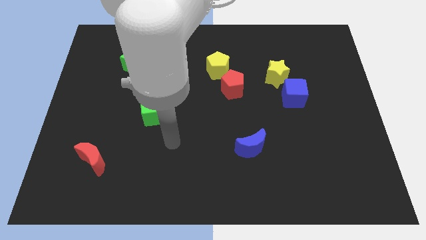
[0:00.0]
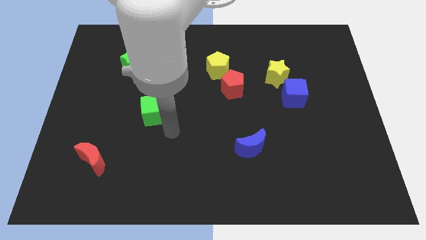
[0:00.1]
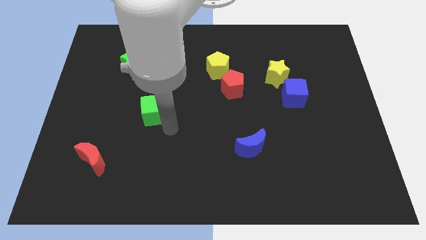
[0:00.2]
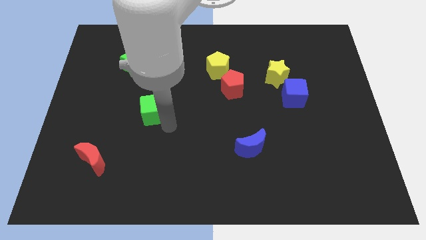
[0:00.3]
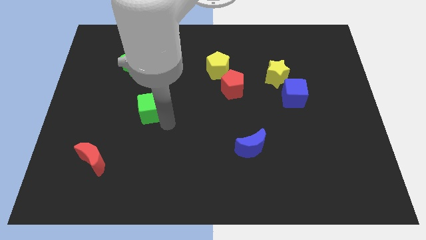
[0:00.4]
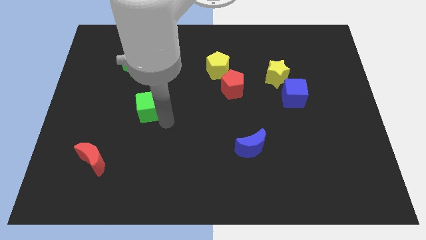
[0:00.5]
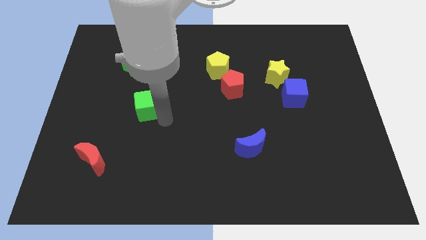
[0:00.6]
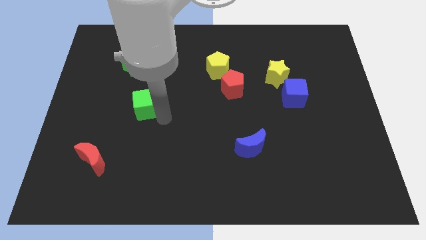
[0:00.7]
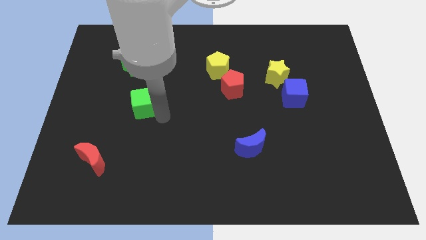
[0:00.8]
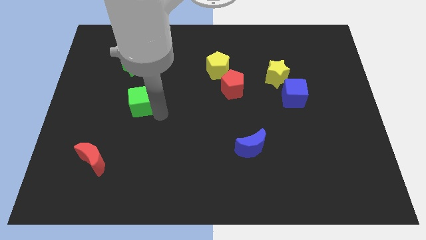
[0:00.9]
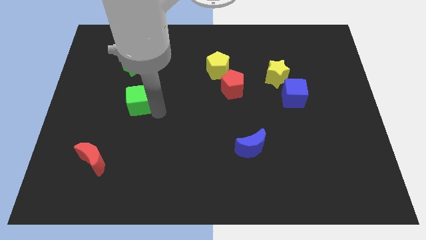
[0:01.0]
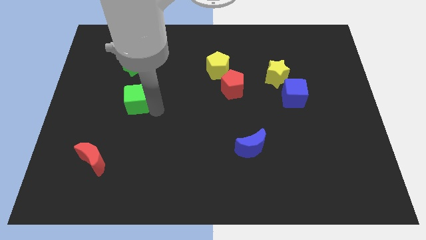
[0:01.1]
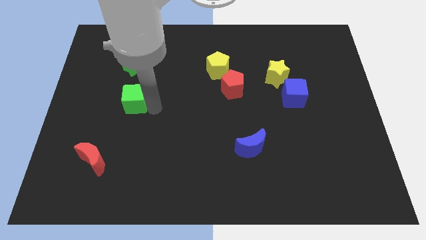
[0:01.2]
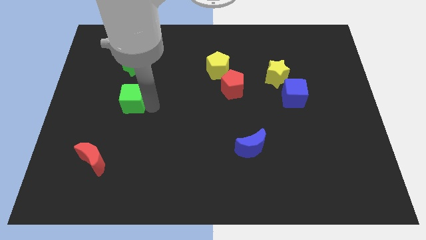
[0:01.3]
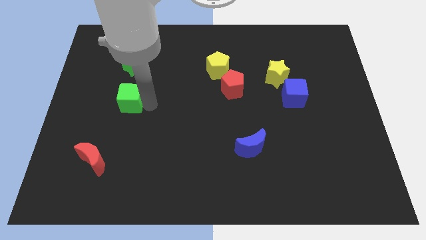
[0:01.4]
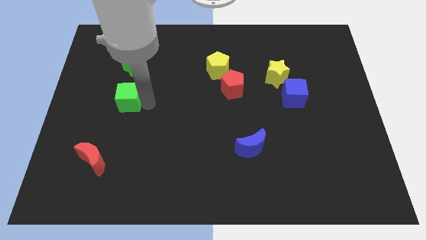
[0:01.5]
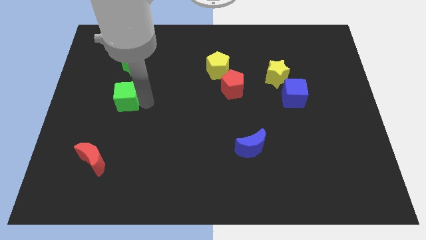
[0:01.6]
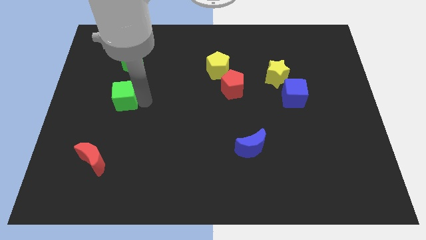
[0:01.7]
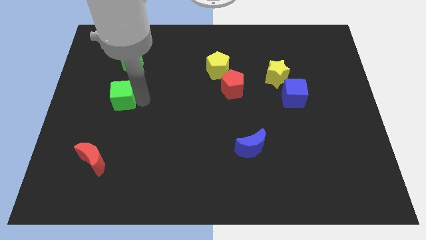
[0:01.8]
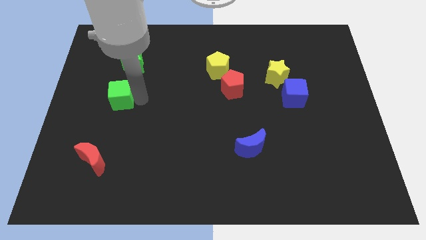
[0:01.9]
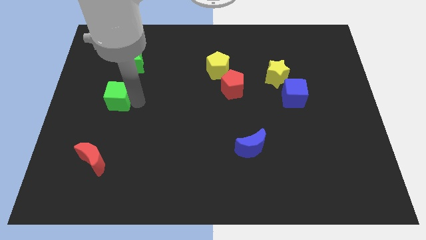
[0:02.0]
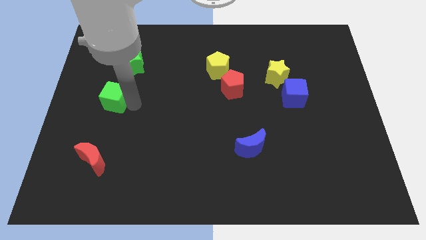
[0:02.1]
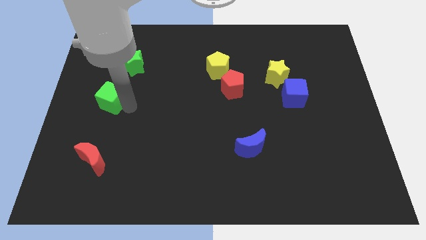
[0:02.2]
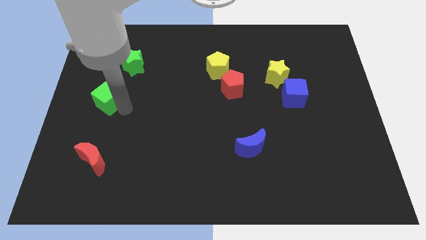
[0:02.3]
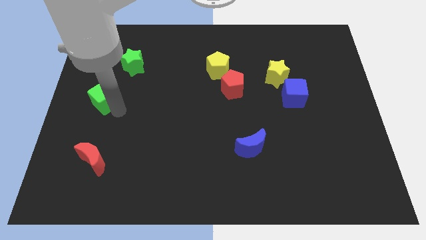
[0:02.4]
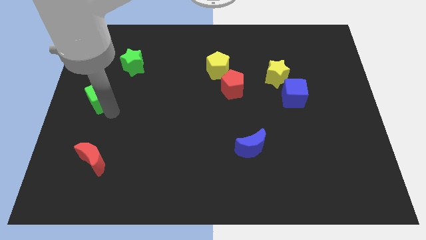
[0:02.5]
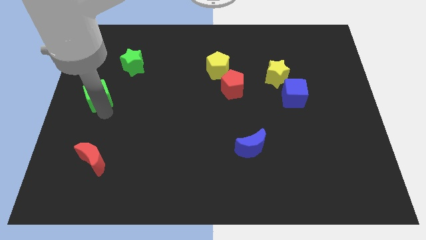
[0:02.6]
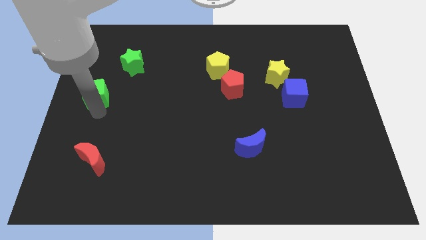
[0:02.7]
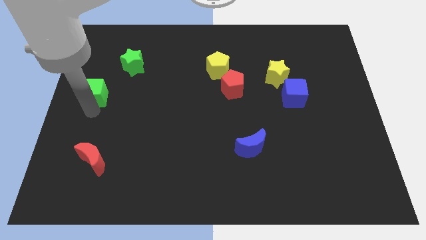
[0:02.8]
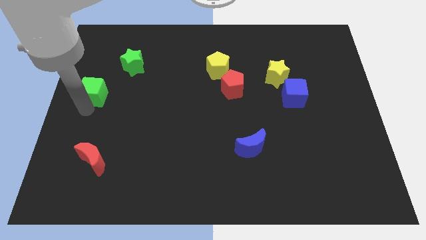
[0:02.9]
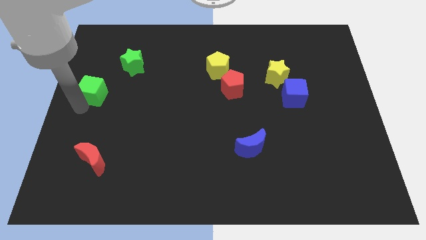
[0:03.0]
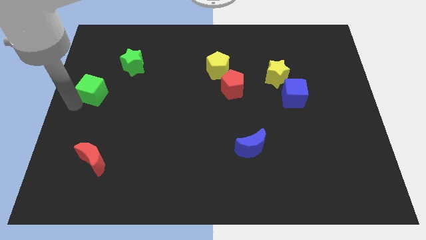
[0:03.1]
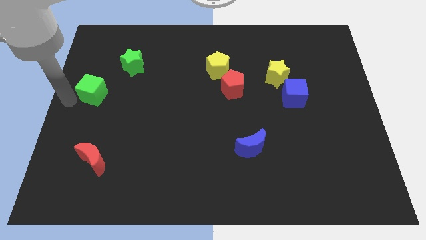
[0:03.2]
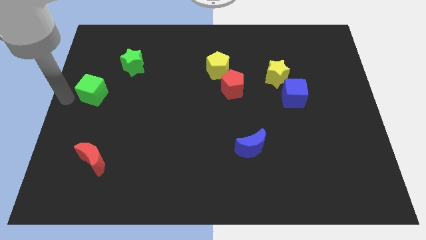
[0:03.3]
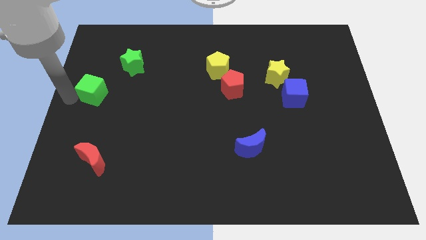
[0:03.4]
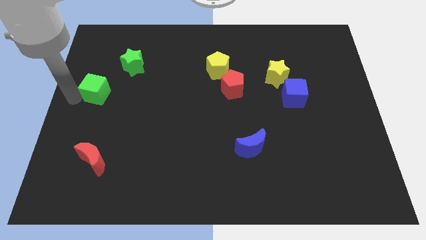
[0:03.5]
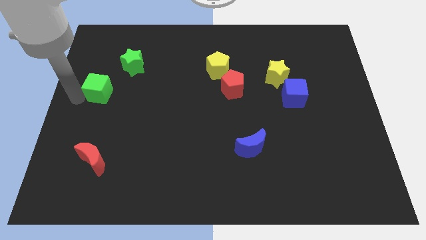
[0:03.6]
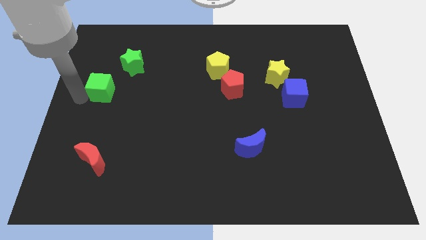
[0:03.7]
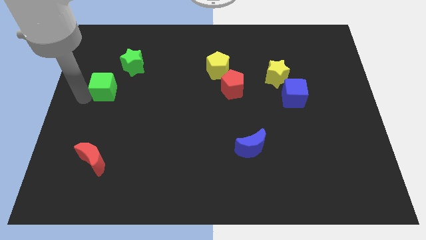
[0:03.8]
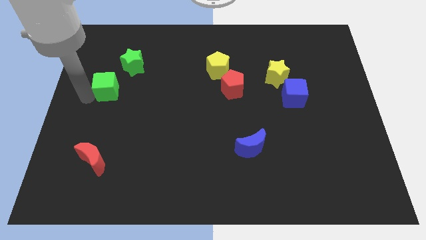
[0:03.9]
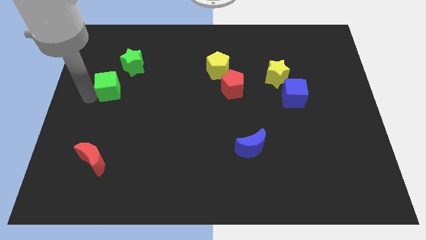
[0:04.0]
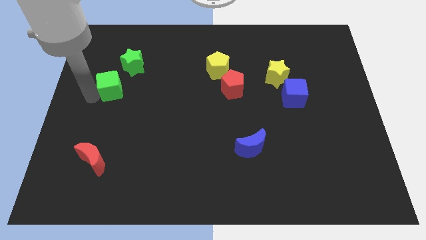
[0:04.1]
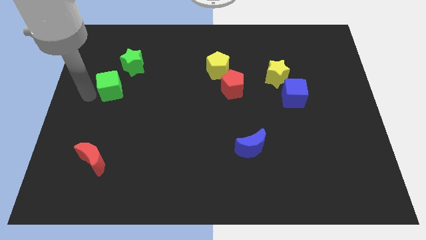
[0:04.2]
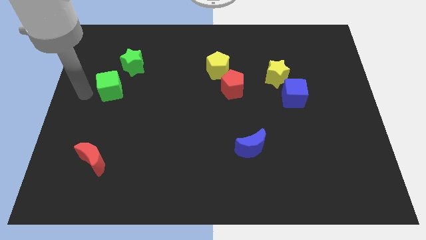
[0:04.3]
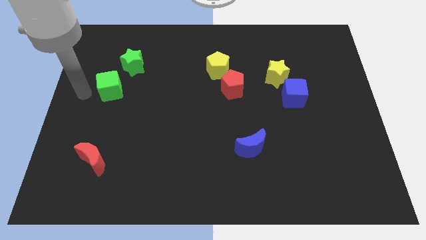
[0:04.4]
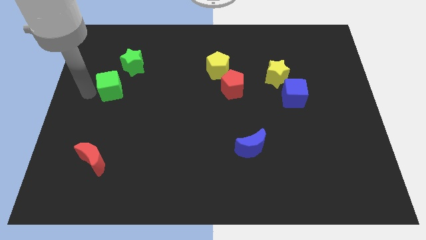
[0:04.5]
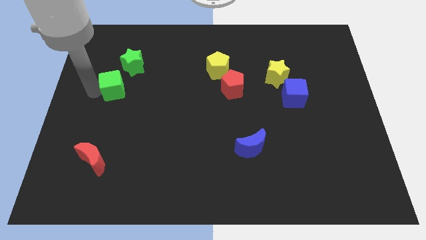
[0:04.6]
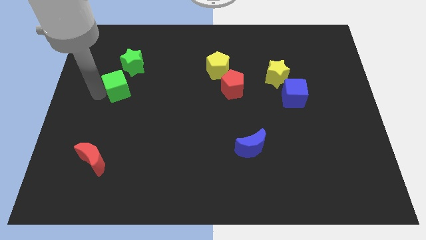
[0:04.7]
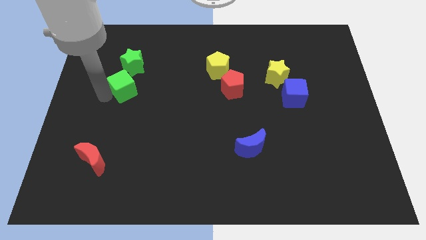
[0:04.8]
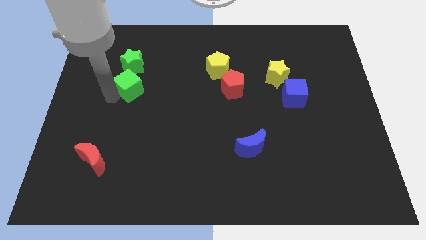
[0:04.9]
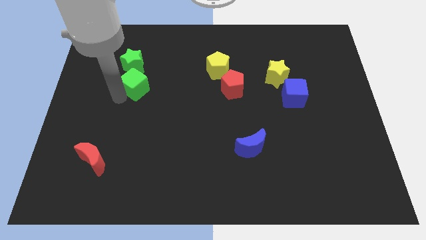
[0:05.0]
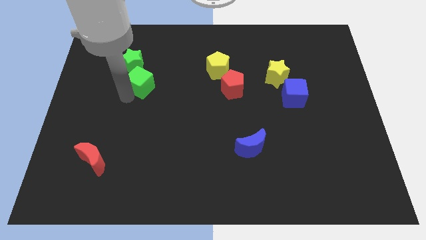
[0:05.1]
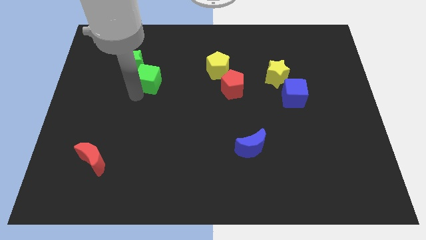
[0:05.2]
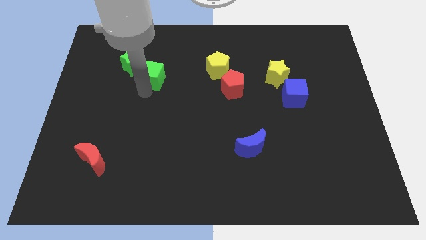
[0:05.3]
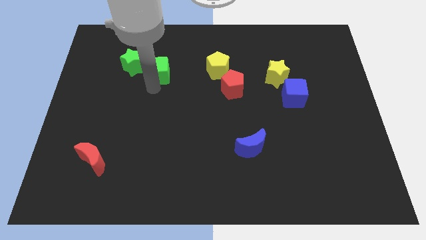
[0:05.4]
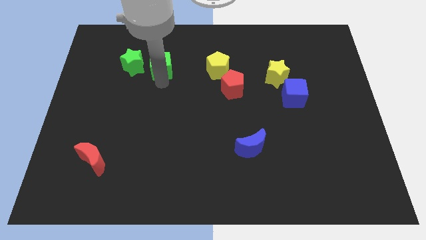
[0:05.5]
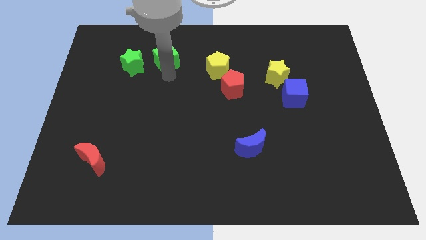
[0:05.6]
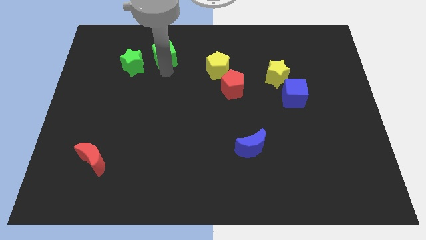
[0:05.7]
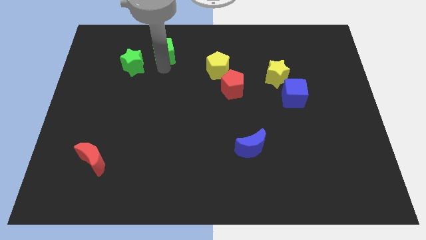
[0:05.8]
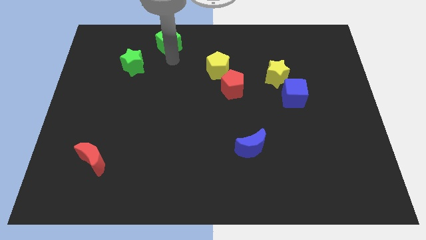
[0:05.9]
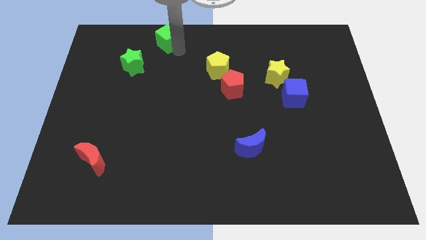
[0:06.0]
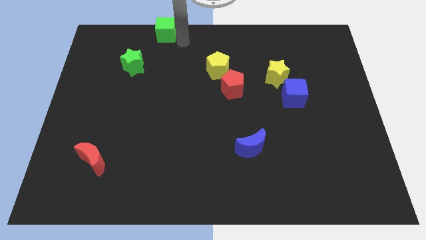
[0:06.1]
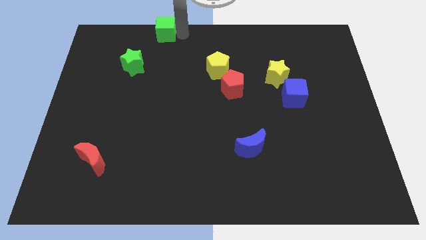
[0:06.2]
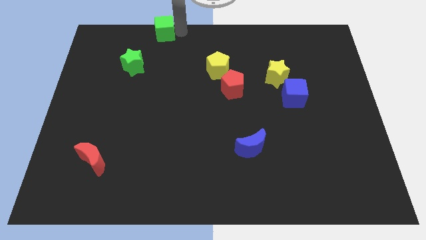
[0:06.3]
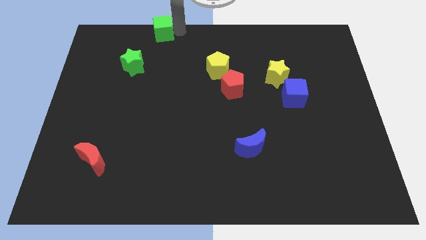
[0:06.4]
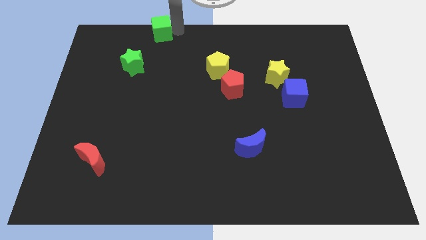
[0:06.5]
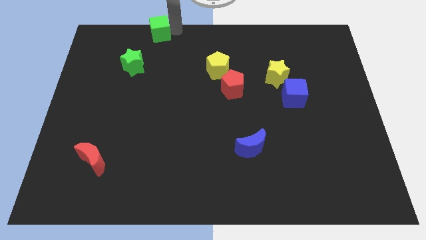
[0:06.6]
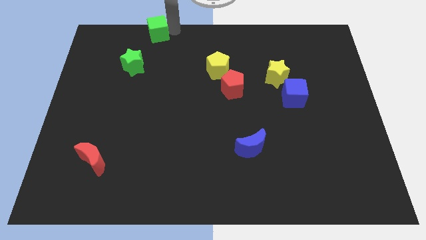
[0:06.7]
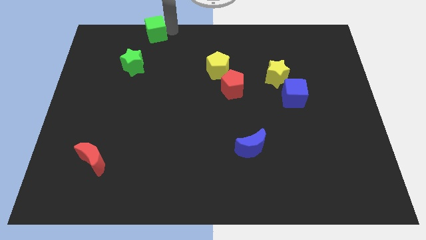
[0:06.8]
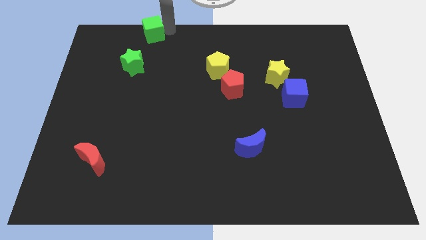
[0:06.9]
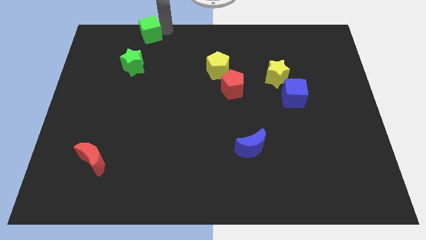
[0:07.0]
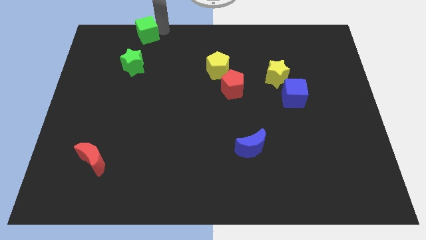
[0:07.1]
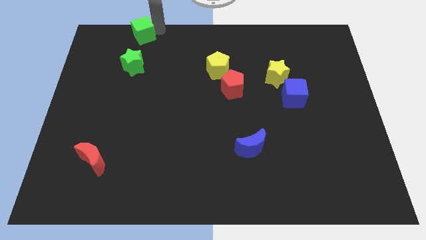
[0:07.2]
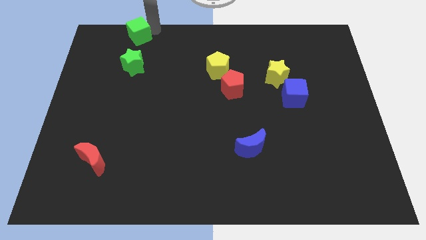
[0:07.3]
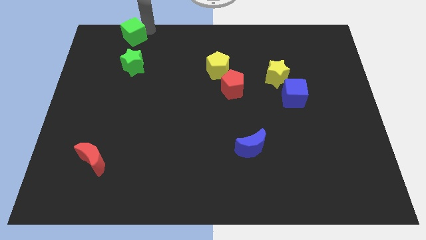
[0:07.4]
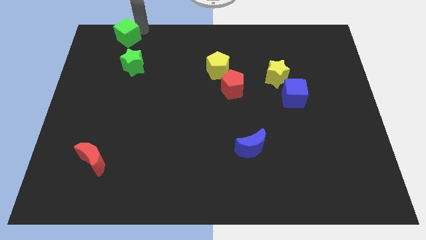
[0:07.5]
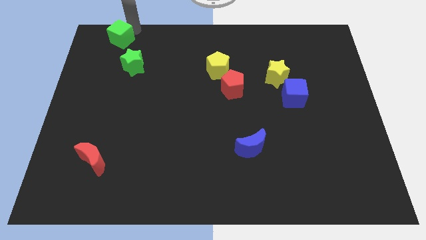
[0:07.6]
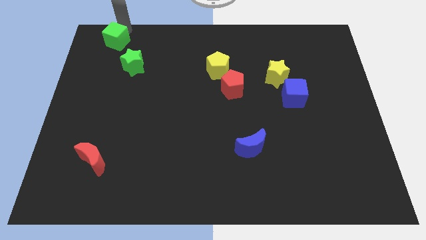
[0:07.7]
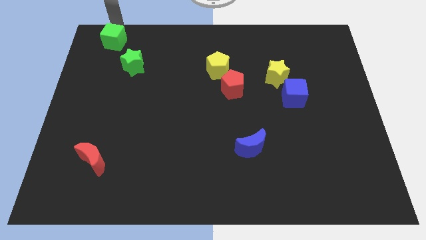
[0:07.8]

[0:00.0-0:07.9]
push the green cube to the top left of the board
